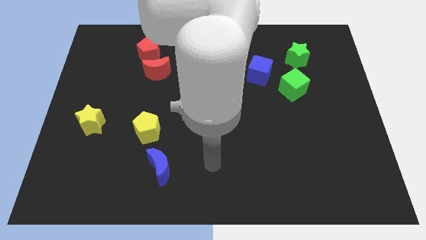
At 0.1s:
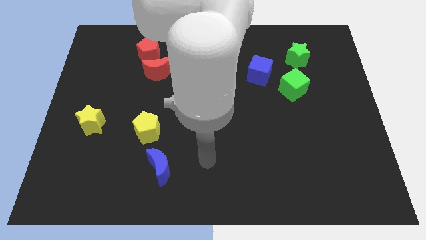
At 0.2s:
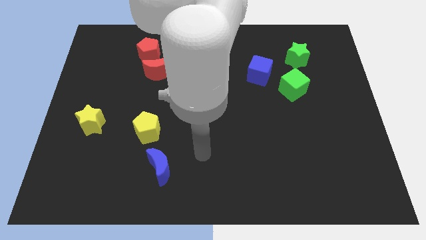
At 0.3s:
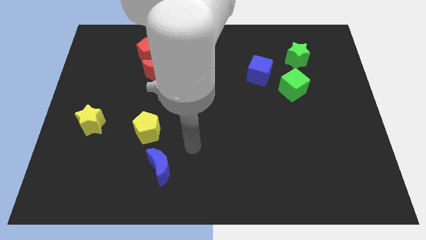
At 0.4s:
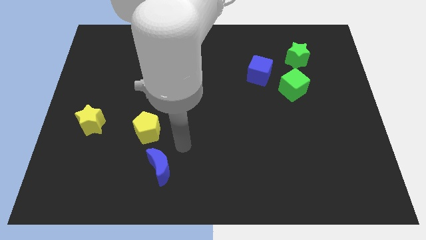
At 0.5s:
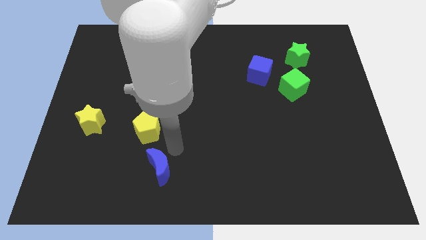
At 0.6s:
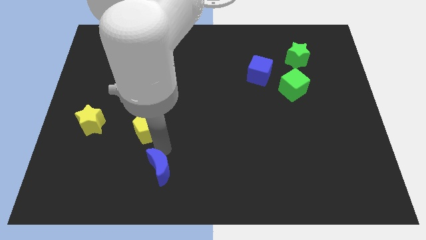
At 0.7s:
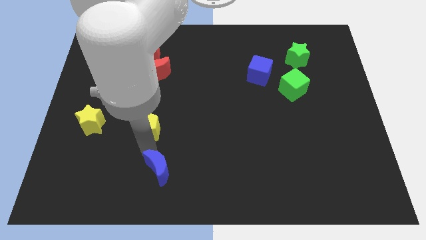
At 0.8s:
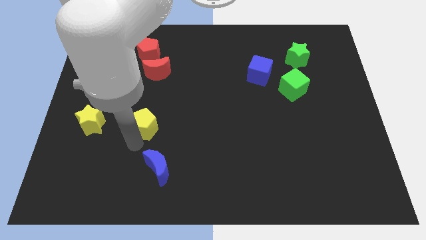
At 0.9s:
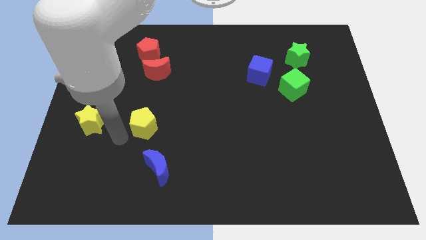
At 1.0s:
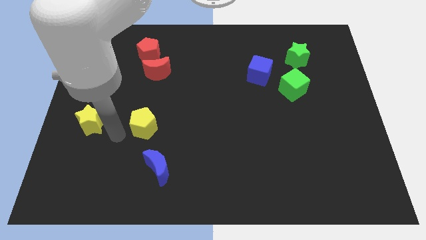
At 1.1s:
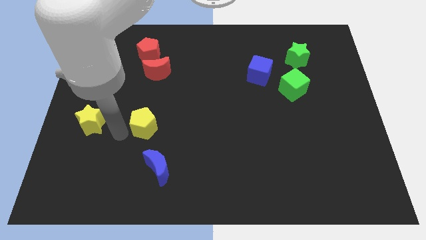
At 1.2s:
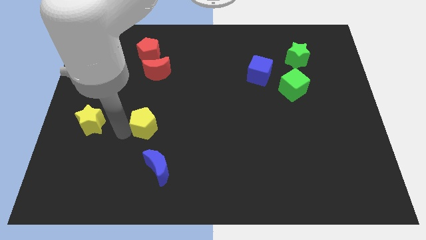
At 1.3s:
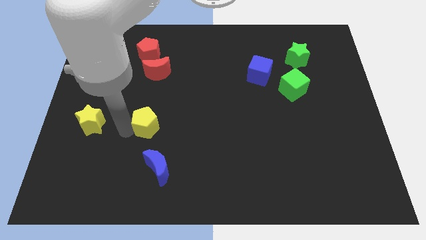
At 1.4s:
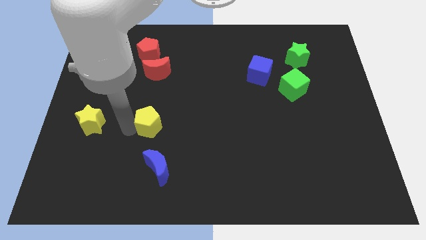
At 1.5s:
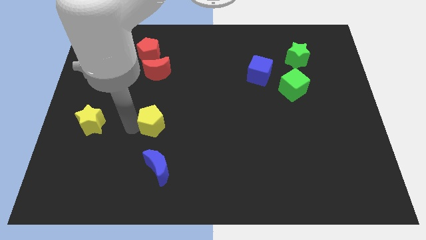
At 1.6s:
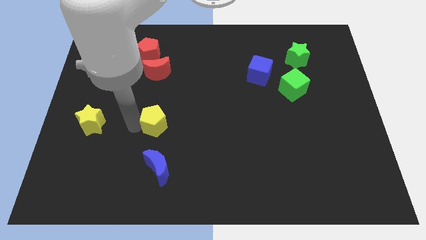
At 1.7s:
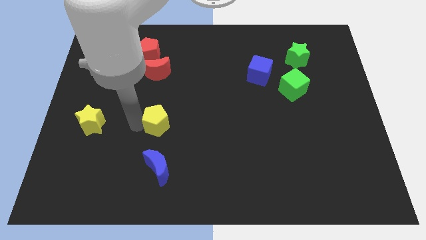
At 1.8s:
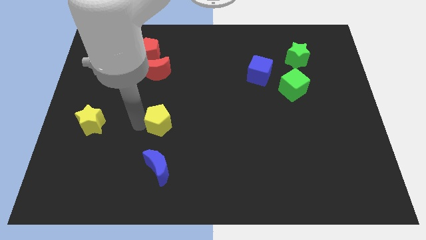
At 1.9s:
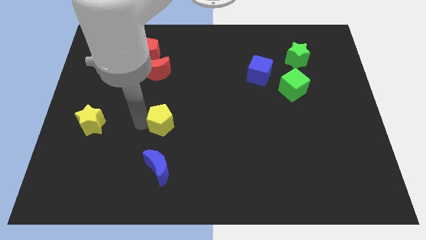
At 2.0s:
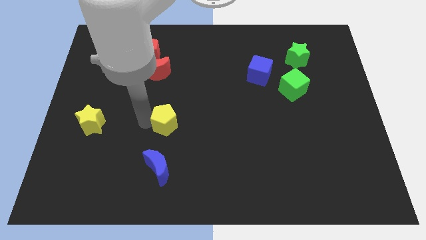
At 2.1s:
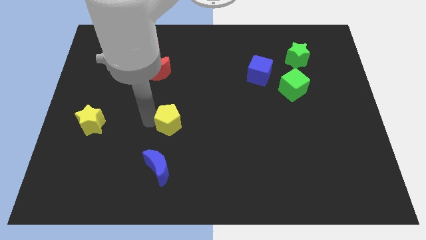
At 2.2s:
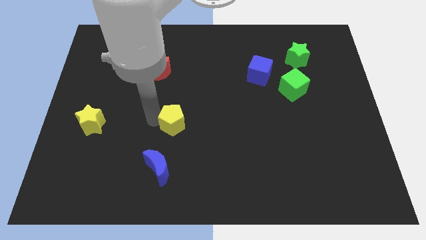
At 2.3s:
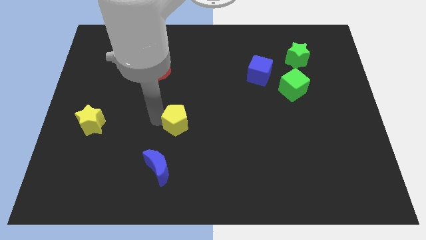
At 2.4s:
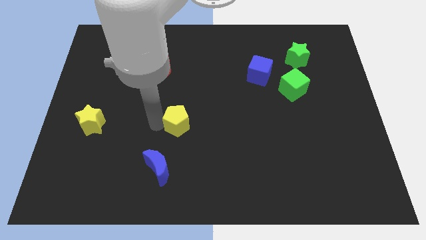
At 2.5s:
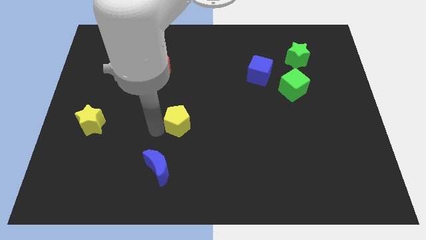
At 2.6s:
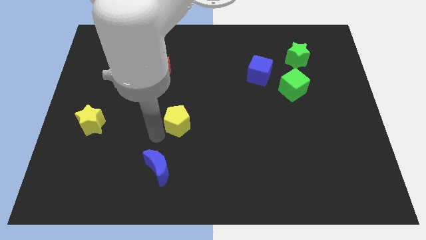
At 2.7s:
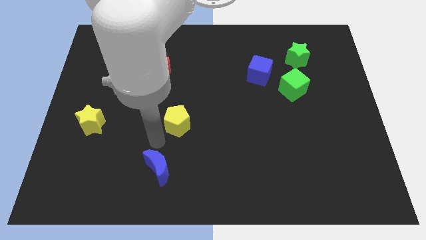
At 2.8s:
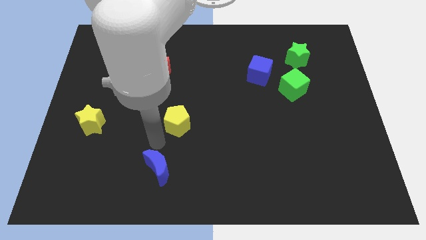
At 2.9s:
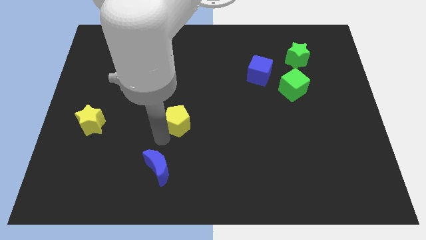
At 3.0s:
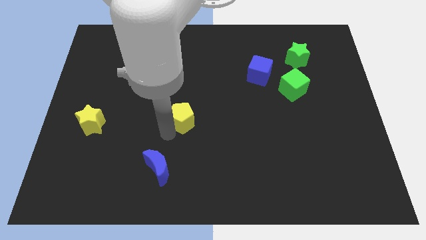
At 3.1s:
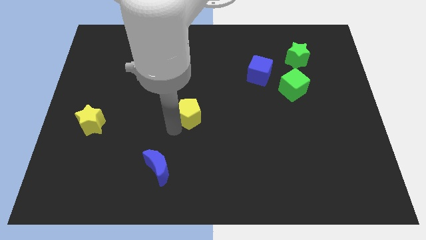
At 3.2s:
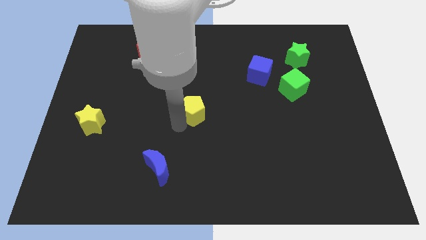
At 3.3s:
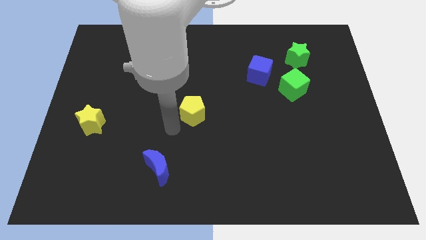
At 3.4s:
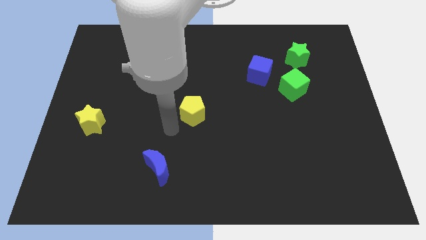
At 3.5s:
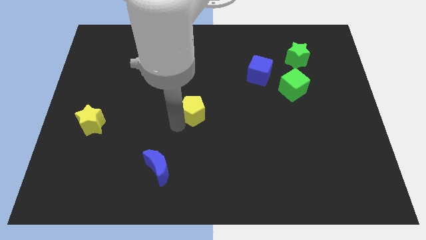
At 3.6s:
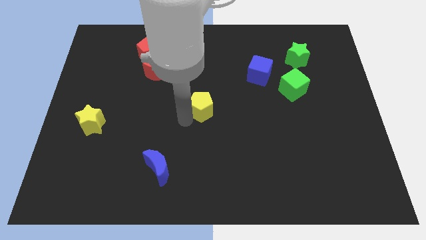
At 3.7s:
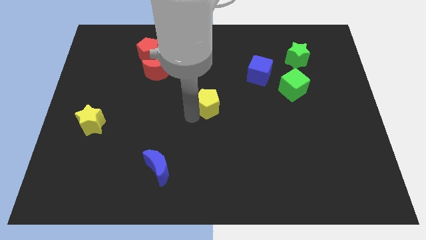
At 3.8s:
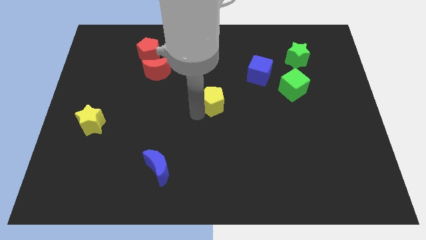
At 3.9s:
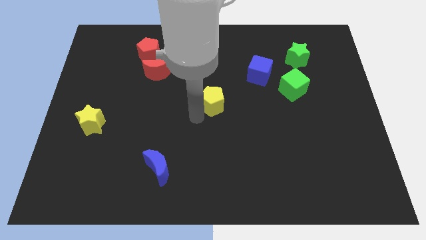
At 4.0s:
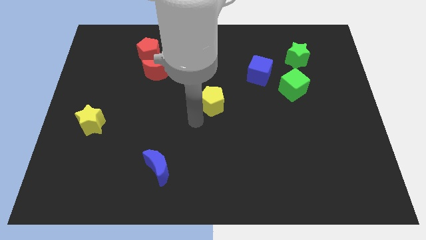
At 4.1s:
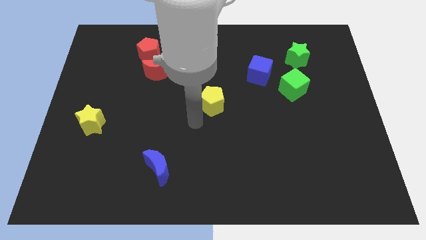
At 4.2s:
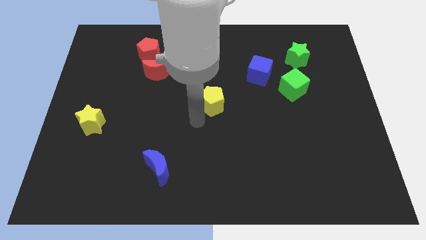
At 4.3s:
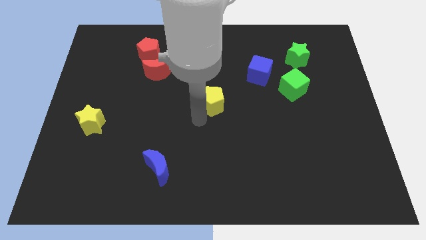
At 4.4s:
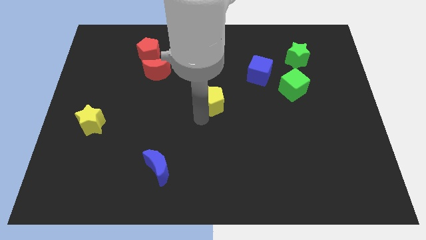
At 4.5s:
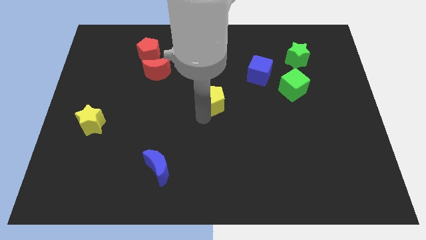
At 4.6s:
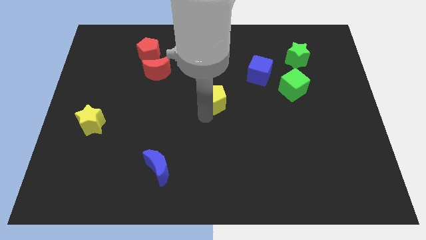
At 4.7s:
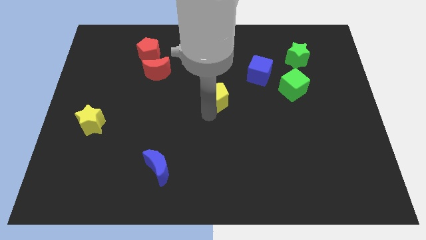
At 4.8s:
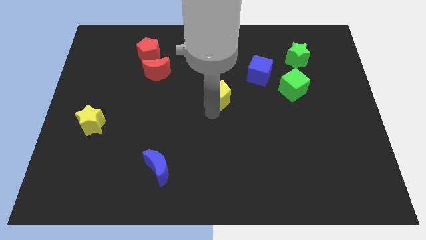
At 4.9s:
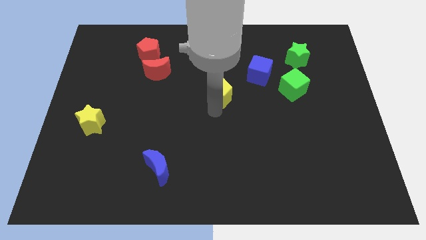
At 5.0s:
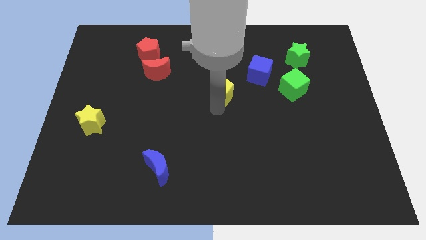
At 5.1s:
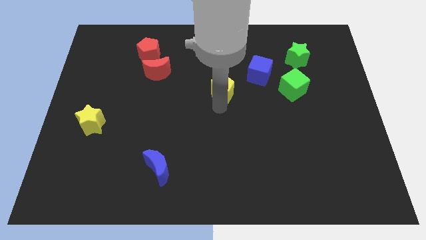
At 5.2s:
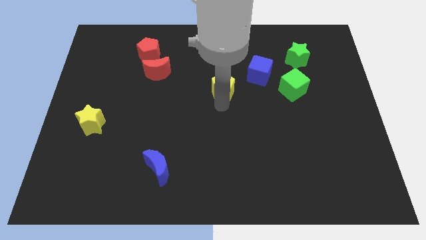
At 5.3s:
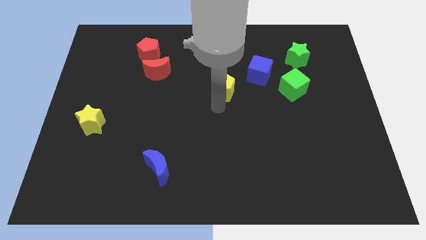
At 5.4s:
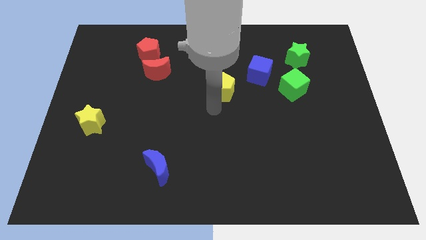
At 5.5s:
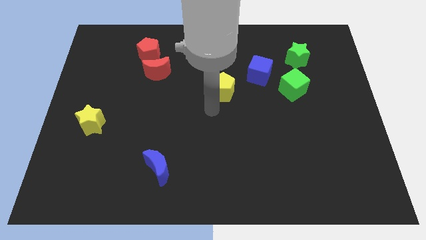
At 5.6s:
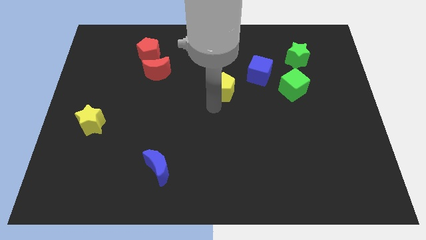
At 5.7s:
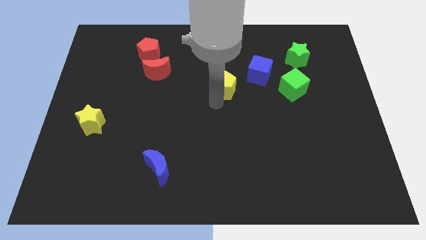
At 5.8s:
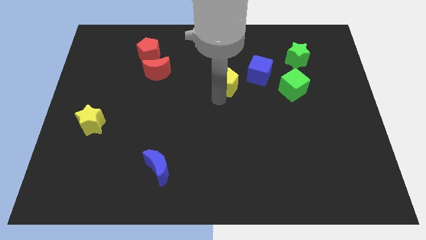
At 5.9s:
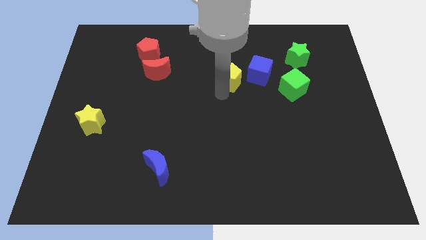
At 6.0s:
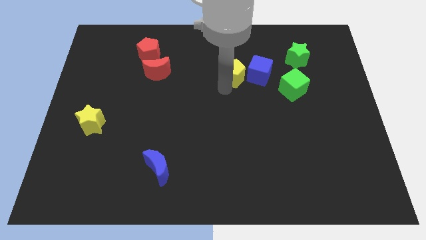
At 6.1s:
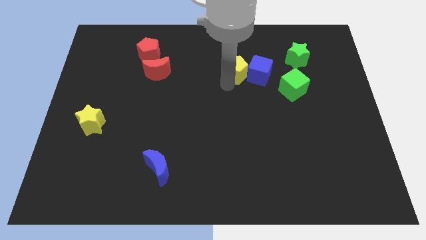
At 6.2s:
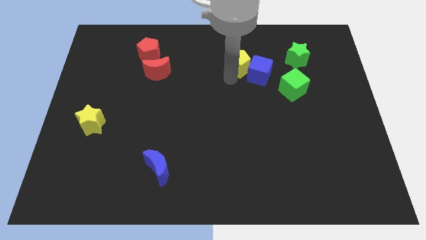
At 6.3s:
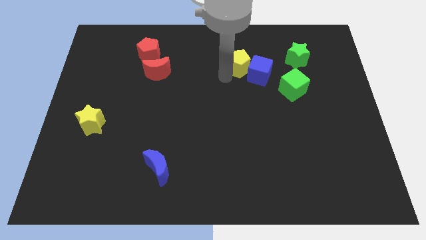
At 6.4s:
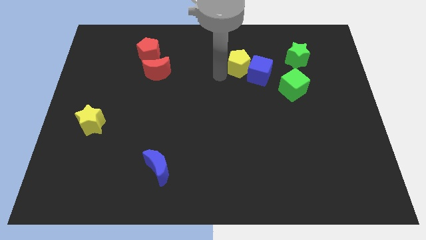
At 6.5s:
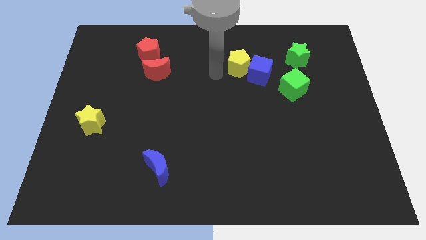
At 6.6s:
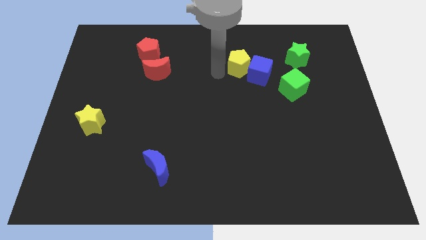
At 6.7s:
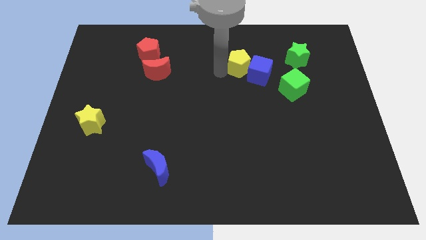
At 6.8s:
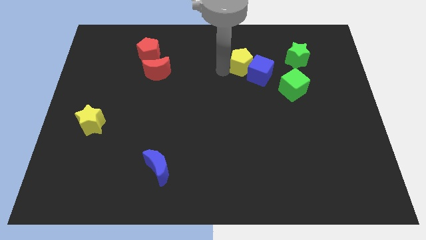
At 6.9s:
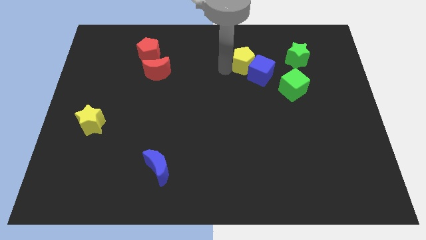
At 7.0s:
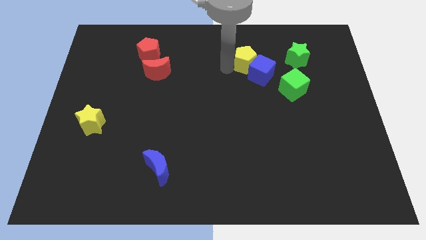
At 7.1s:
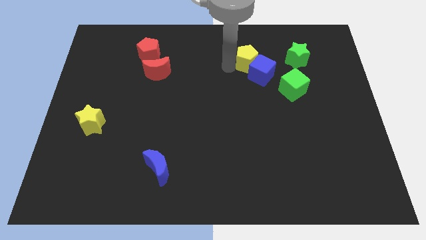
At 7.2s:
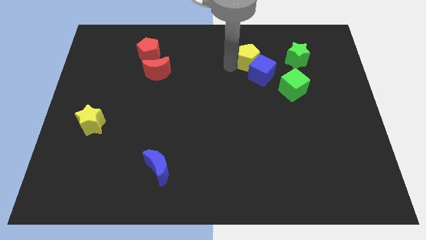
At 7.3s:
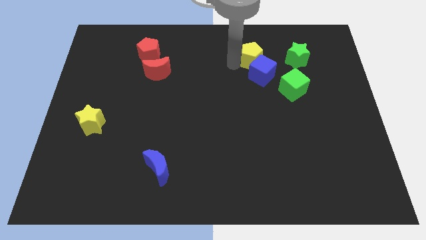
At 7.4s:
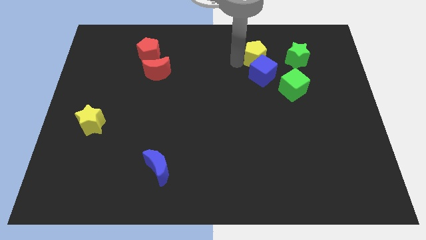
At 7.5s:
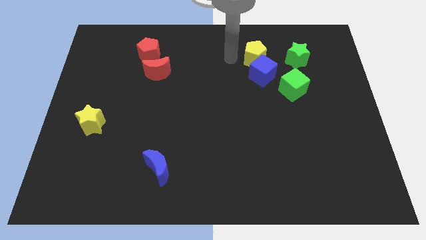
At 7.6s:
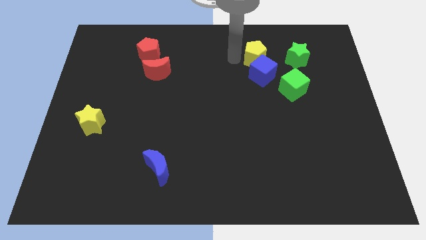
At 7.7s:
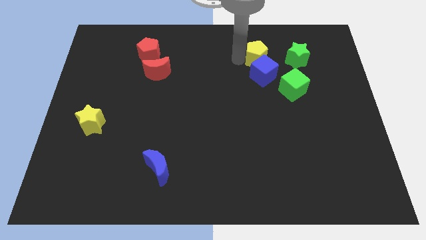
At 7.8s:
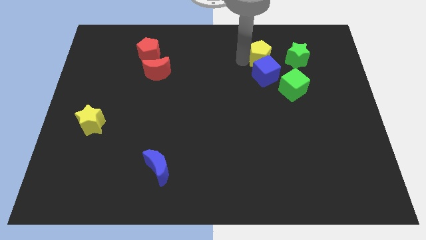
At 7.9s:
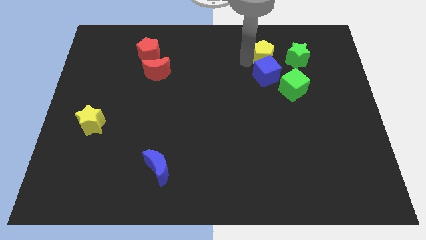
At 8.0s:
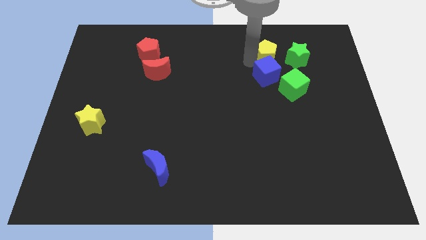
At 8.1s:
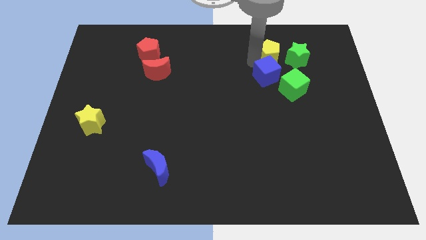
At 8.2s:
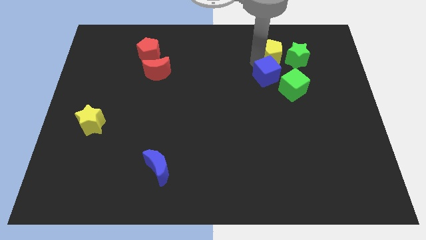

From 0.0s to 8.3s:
slide the yellow pentagon towards the green star
